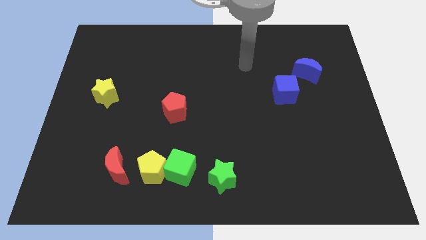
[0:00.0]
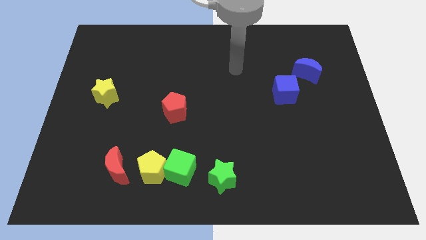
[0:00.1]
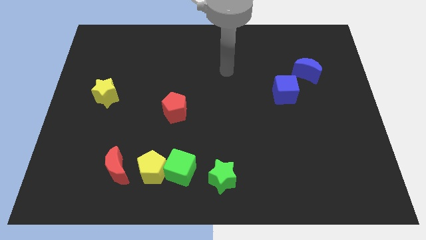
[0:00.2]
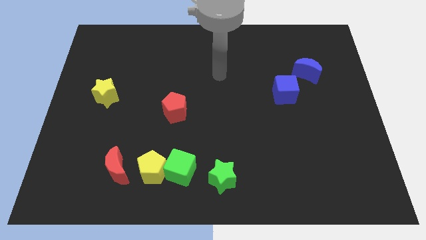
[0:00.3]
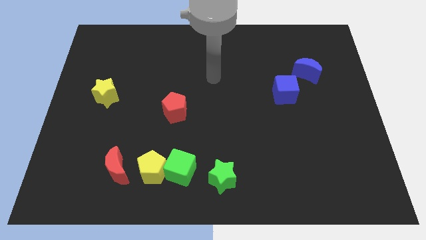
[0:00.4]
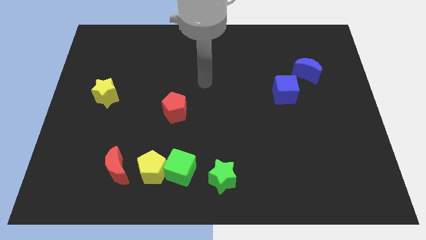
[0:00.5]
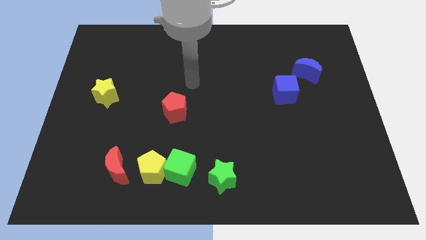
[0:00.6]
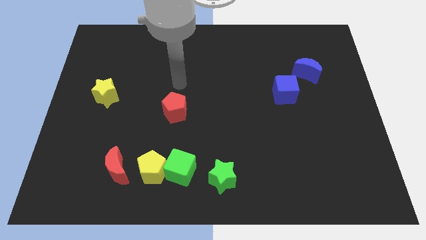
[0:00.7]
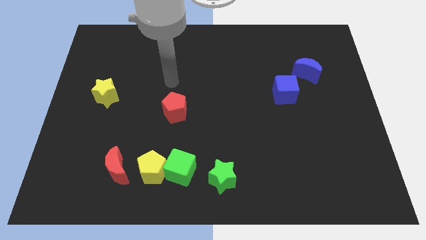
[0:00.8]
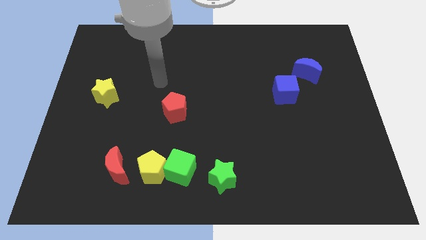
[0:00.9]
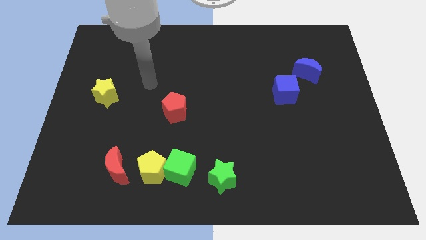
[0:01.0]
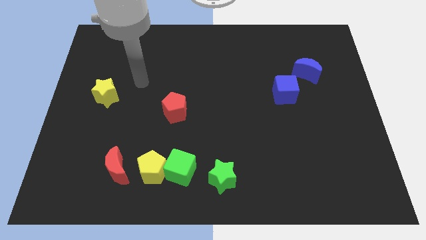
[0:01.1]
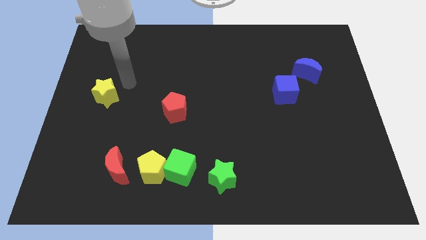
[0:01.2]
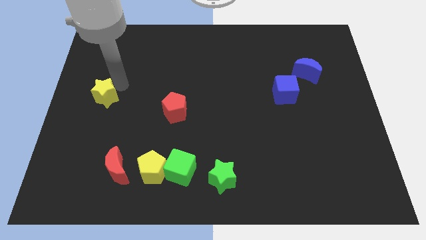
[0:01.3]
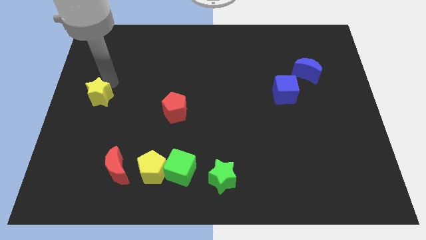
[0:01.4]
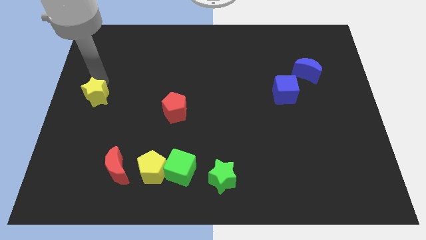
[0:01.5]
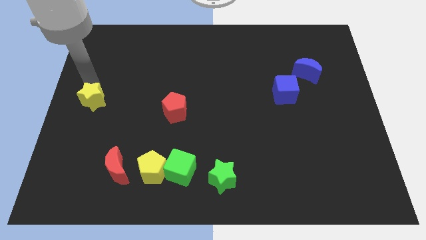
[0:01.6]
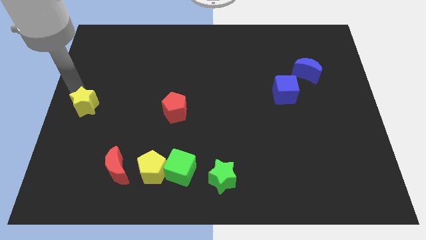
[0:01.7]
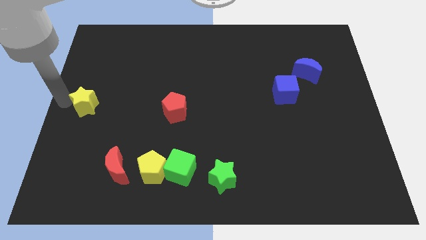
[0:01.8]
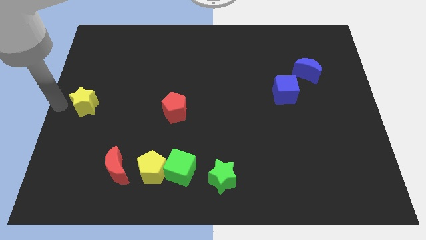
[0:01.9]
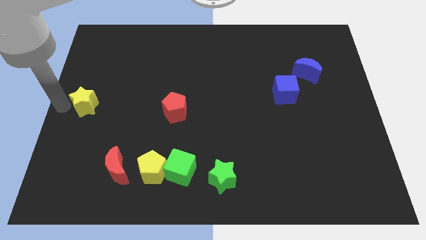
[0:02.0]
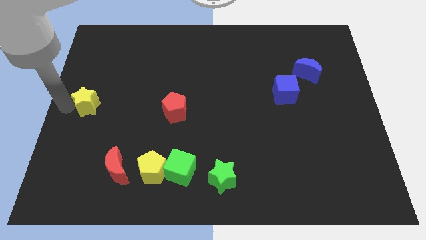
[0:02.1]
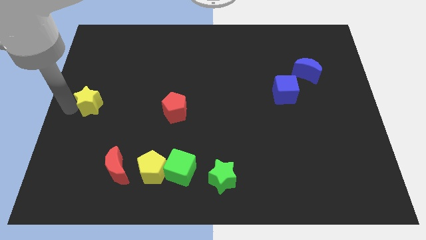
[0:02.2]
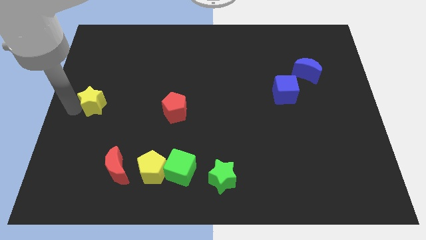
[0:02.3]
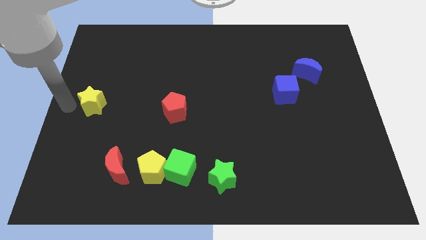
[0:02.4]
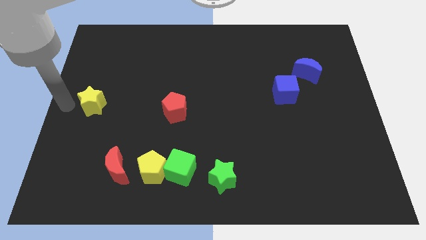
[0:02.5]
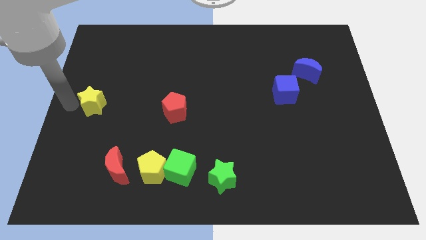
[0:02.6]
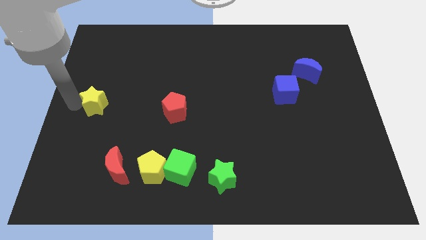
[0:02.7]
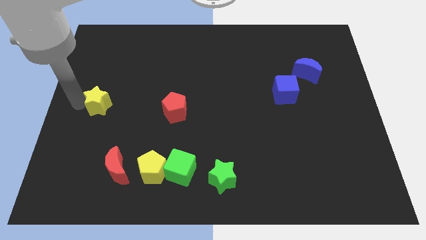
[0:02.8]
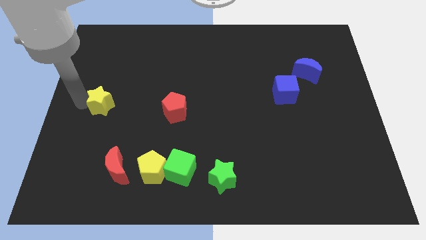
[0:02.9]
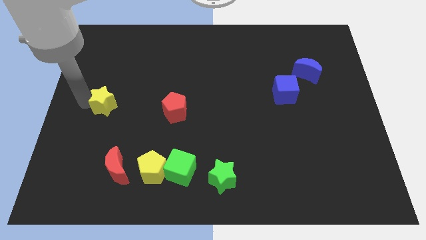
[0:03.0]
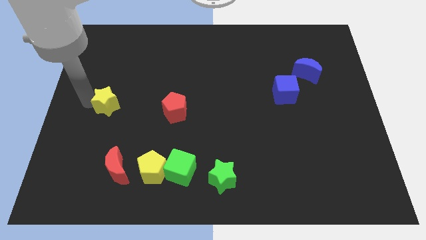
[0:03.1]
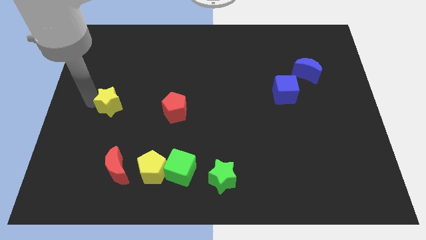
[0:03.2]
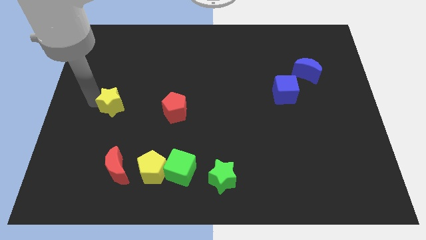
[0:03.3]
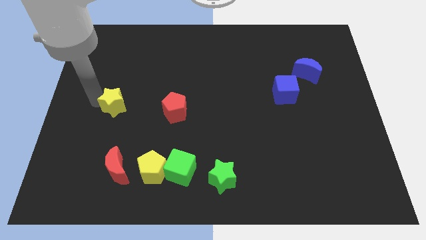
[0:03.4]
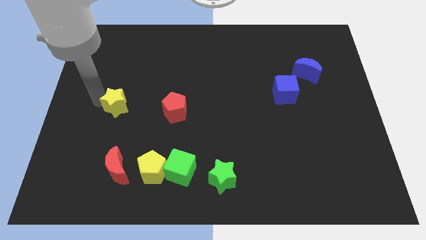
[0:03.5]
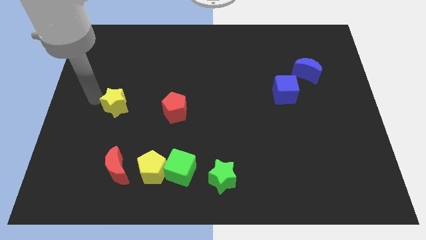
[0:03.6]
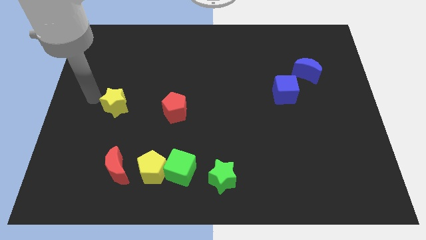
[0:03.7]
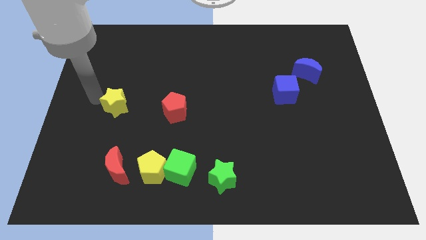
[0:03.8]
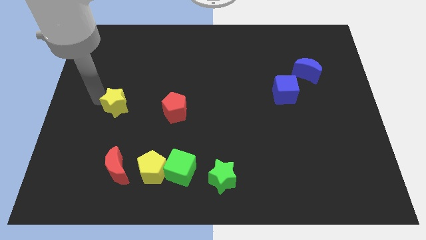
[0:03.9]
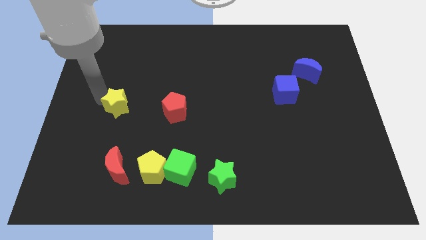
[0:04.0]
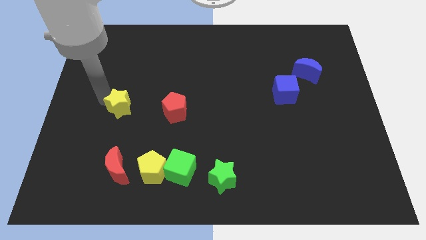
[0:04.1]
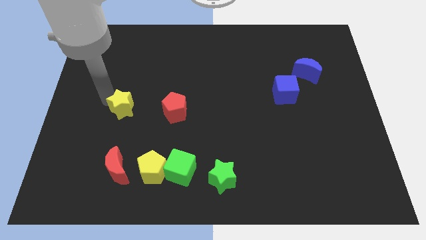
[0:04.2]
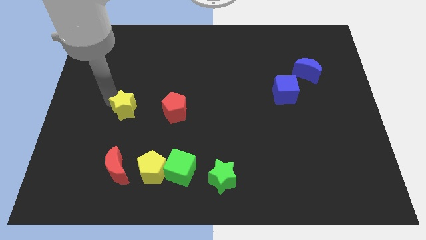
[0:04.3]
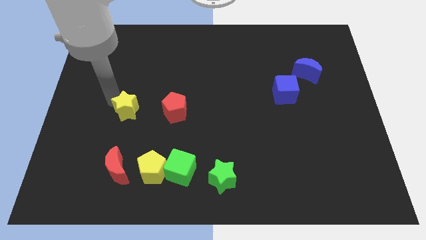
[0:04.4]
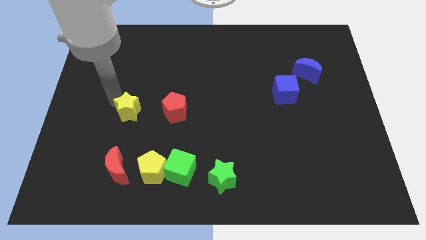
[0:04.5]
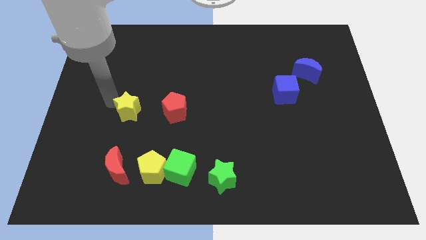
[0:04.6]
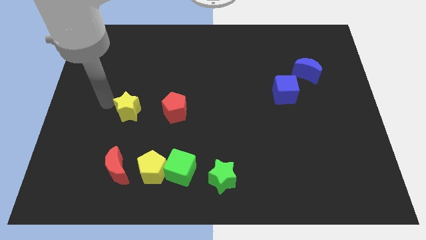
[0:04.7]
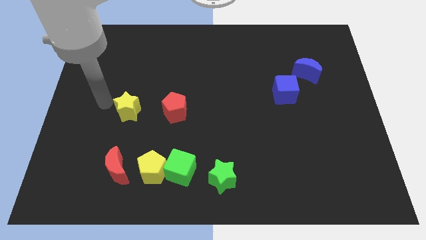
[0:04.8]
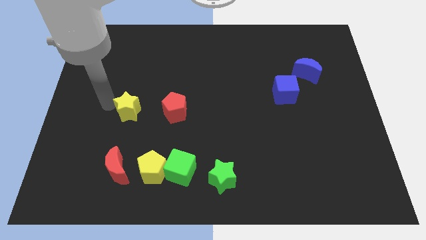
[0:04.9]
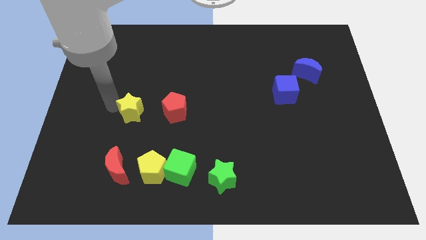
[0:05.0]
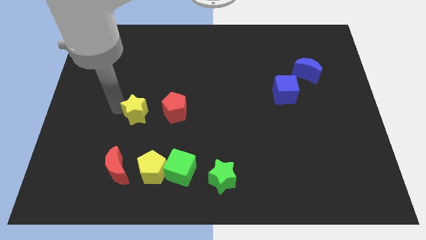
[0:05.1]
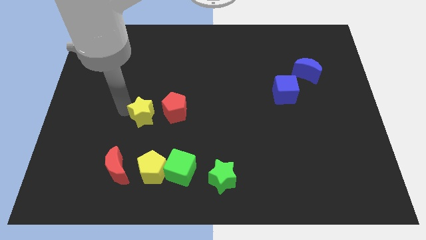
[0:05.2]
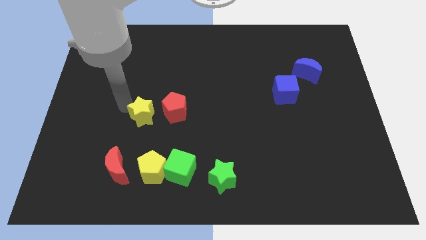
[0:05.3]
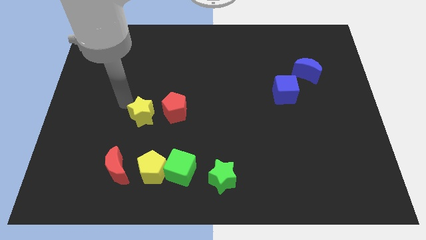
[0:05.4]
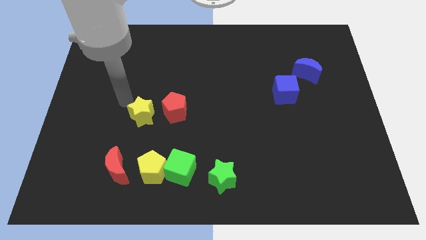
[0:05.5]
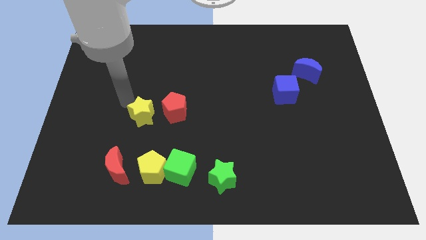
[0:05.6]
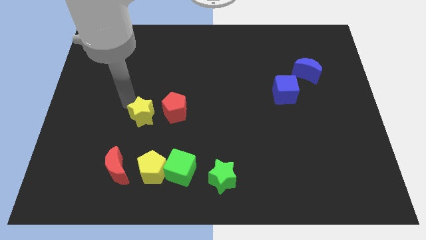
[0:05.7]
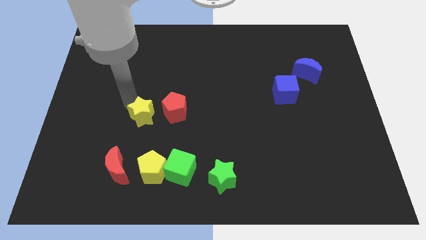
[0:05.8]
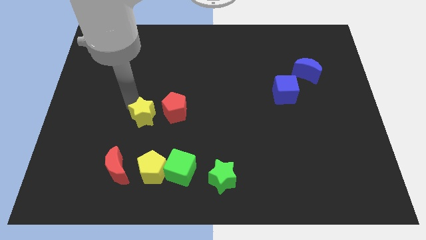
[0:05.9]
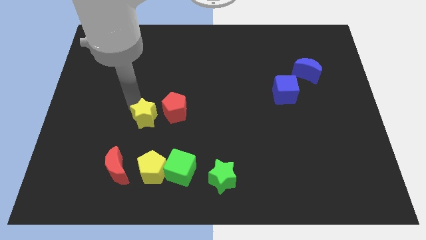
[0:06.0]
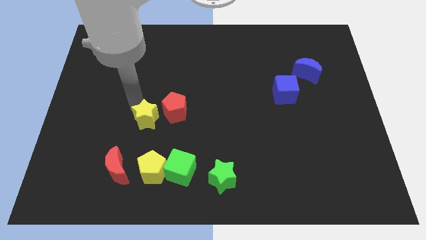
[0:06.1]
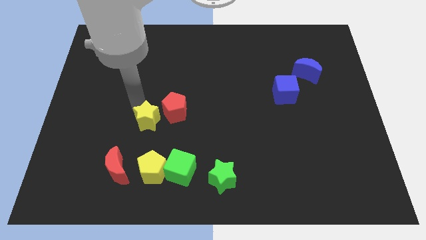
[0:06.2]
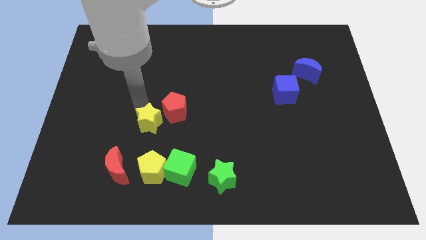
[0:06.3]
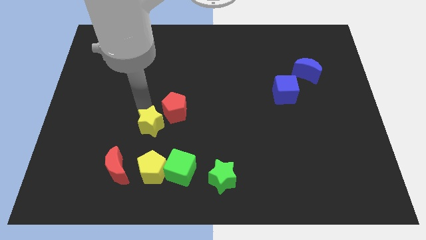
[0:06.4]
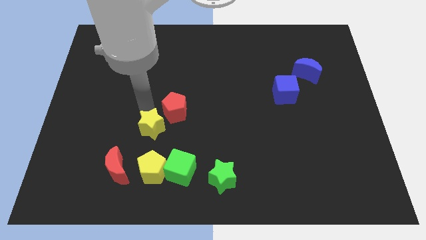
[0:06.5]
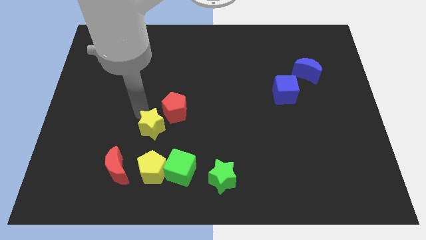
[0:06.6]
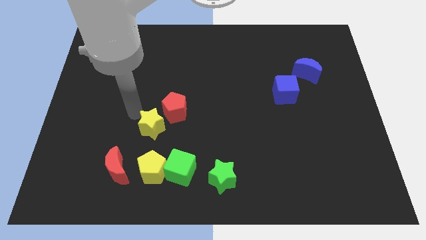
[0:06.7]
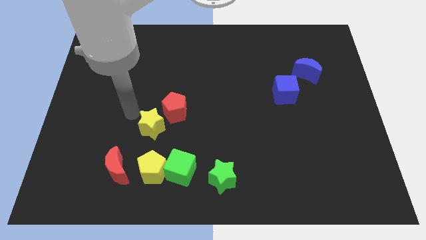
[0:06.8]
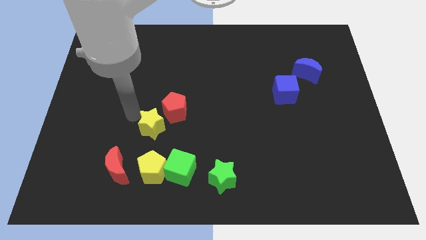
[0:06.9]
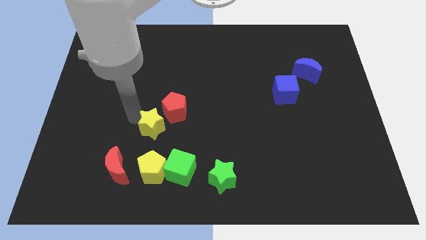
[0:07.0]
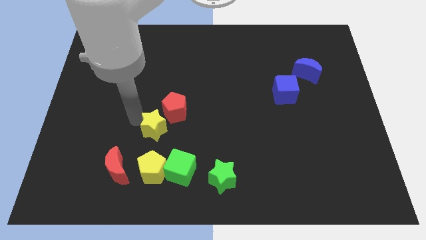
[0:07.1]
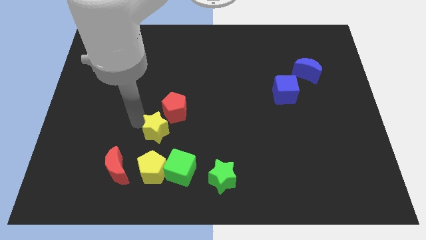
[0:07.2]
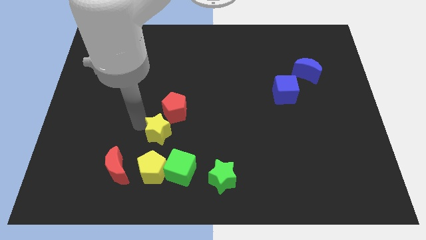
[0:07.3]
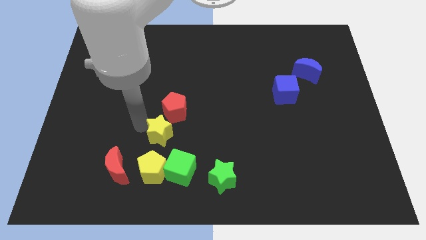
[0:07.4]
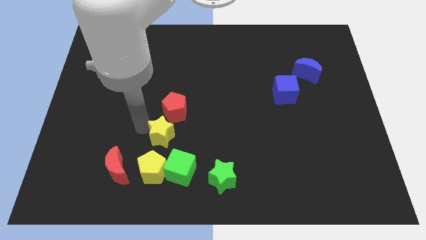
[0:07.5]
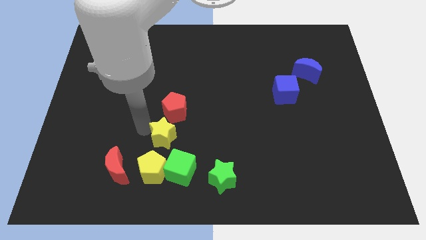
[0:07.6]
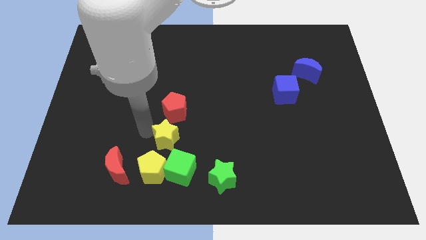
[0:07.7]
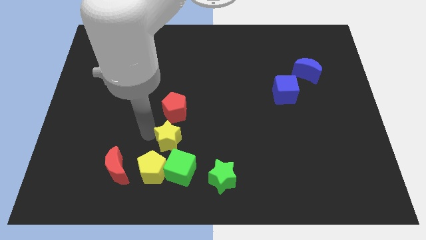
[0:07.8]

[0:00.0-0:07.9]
push the yellow star diagonally down and right

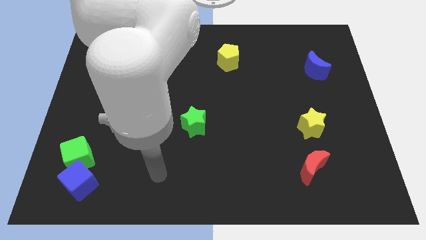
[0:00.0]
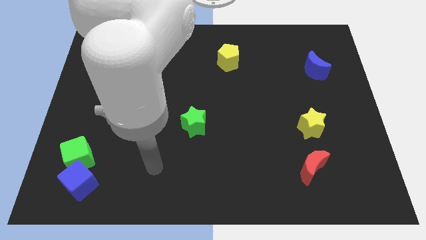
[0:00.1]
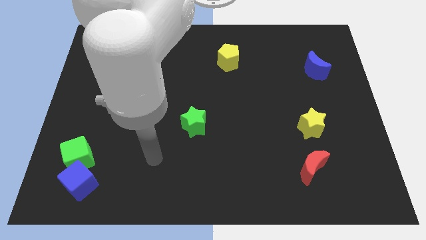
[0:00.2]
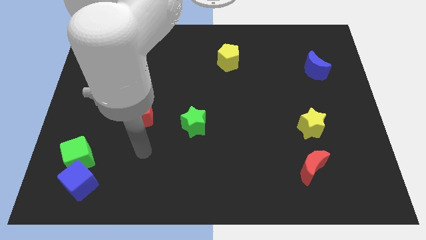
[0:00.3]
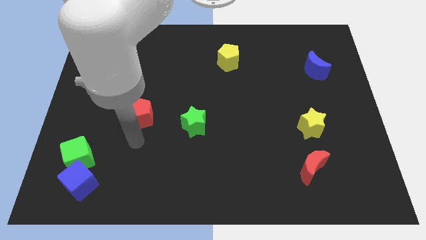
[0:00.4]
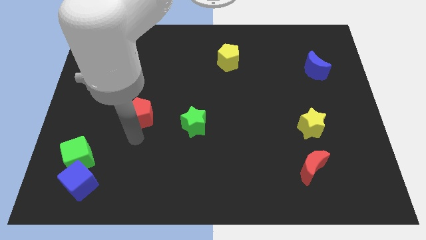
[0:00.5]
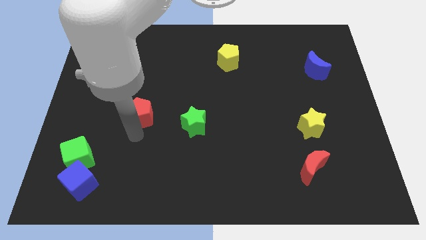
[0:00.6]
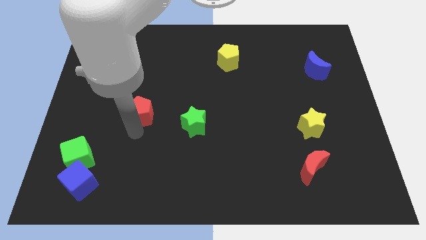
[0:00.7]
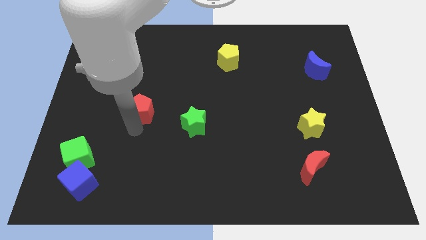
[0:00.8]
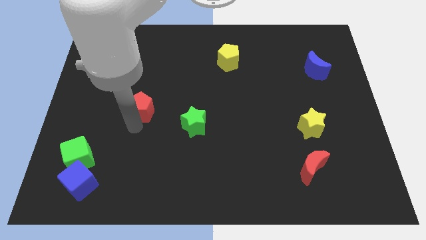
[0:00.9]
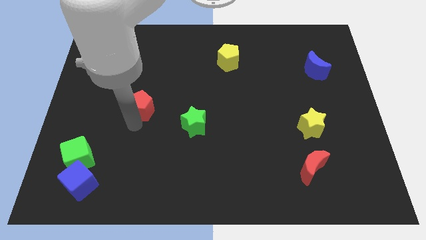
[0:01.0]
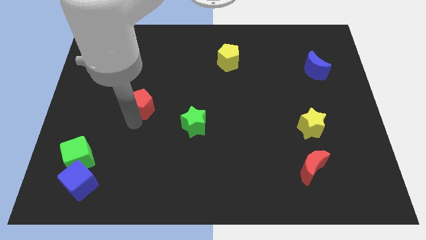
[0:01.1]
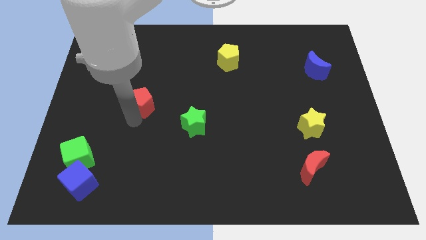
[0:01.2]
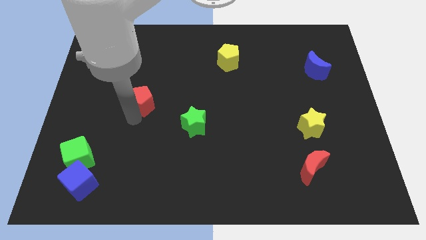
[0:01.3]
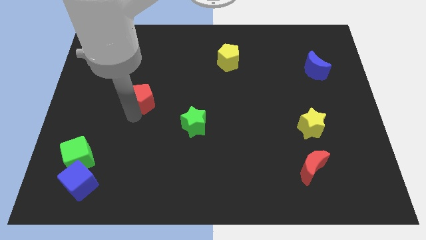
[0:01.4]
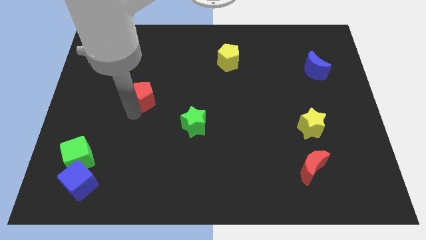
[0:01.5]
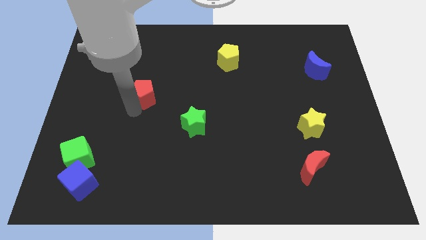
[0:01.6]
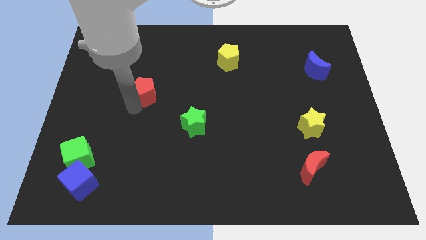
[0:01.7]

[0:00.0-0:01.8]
move the red pentagon a little up
